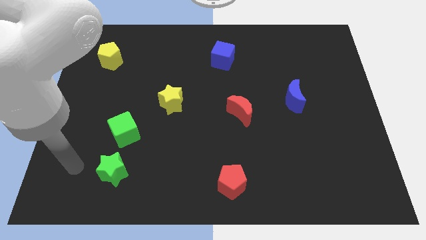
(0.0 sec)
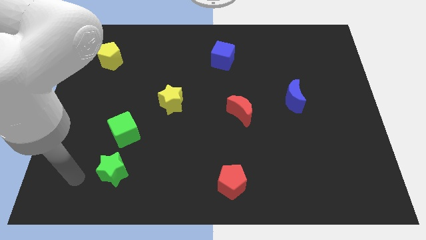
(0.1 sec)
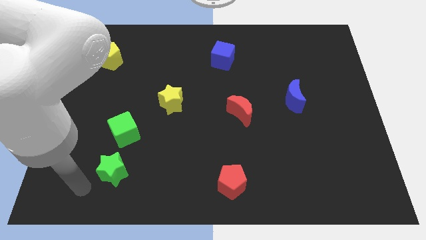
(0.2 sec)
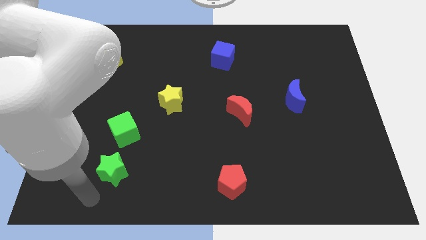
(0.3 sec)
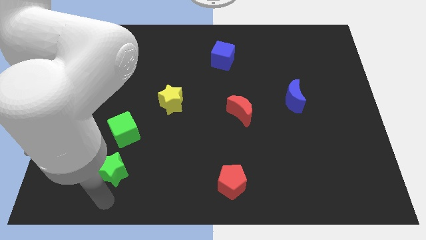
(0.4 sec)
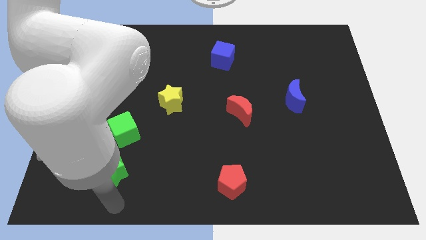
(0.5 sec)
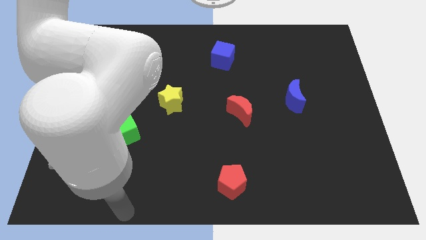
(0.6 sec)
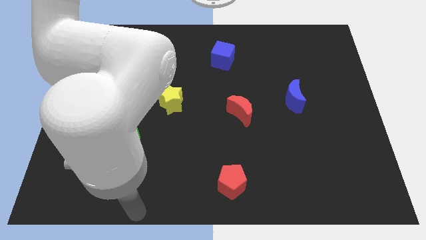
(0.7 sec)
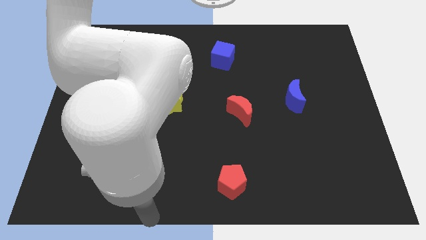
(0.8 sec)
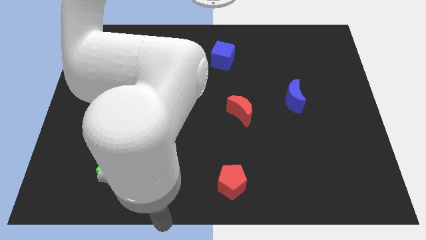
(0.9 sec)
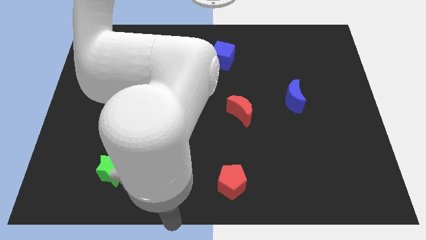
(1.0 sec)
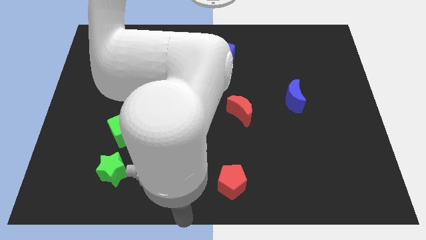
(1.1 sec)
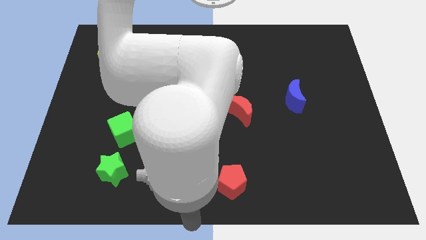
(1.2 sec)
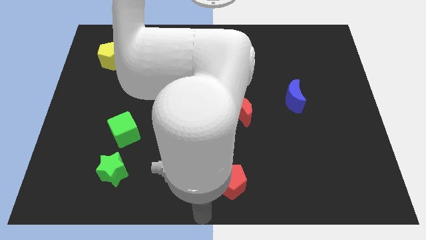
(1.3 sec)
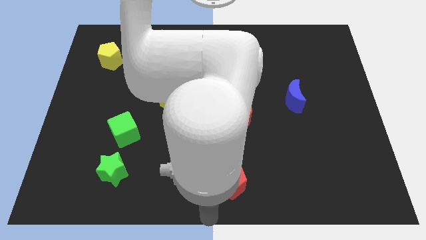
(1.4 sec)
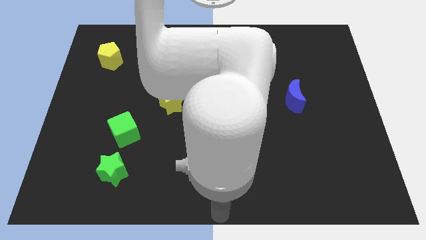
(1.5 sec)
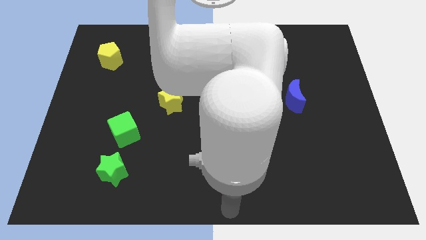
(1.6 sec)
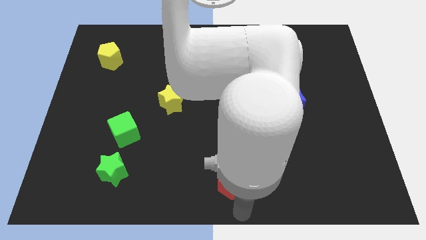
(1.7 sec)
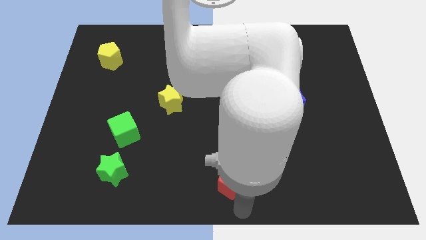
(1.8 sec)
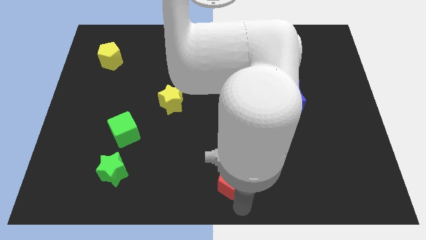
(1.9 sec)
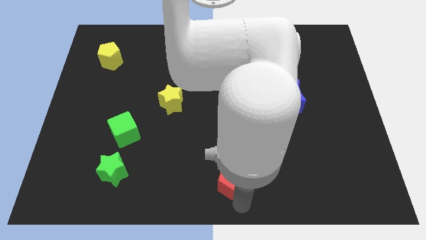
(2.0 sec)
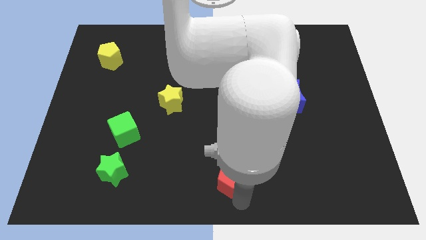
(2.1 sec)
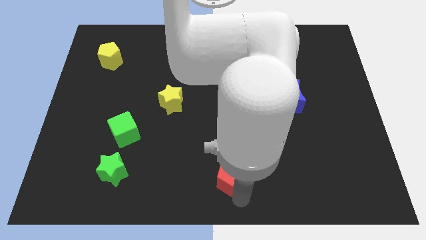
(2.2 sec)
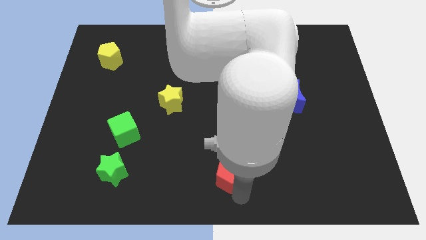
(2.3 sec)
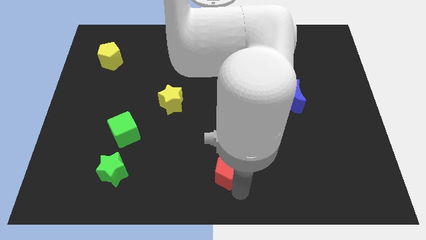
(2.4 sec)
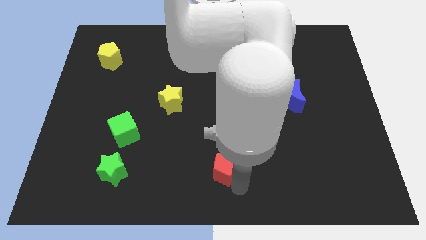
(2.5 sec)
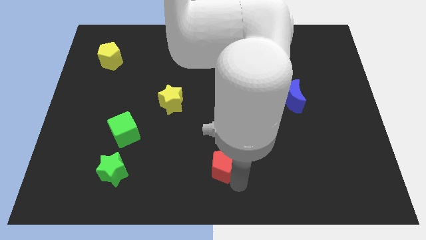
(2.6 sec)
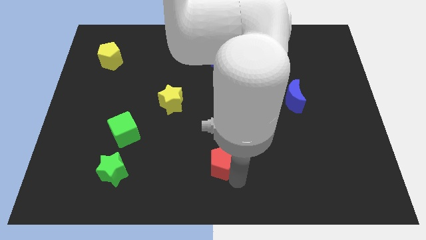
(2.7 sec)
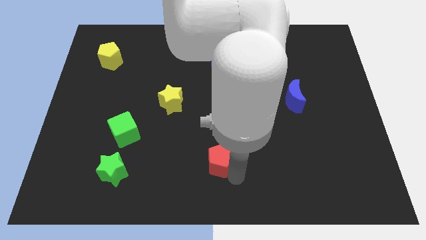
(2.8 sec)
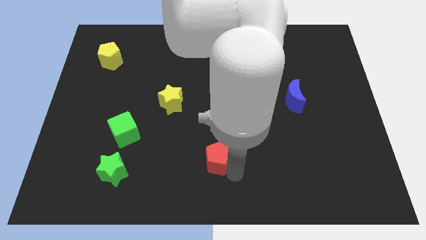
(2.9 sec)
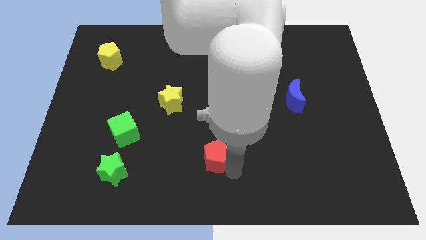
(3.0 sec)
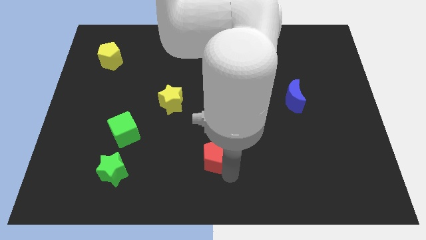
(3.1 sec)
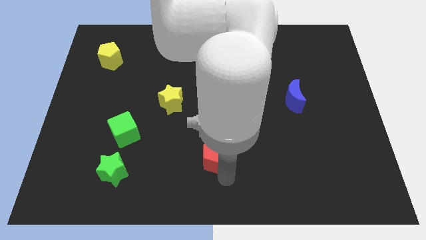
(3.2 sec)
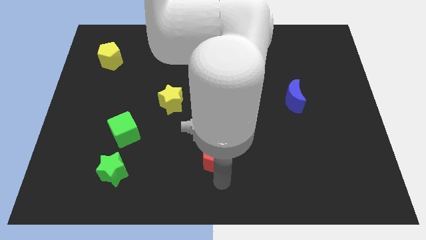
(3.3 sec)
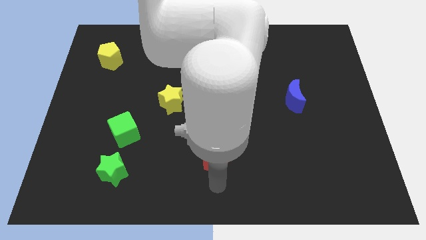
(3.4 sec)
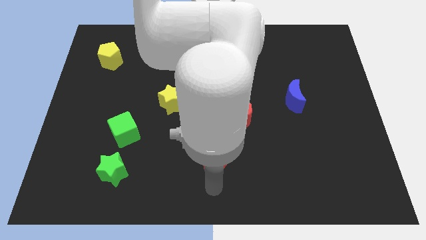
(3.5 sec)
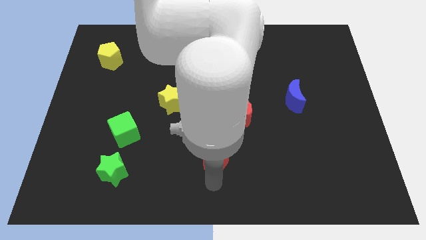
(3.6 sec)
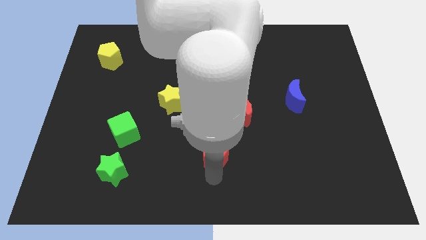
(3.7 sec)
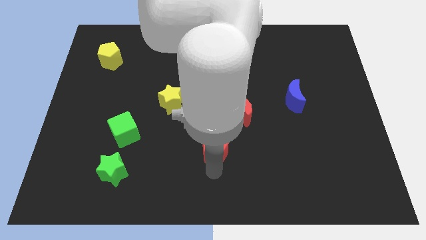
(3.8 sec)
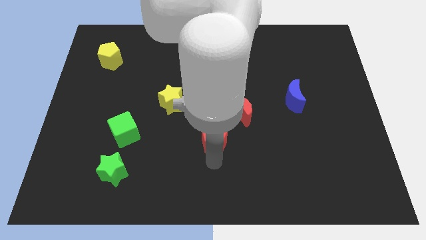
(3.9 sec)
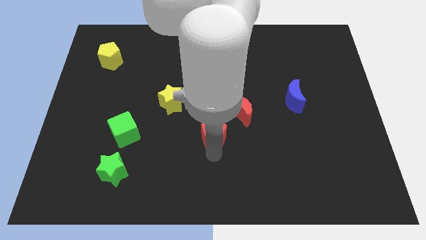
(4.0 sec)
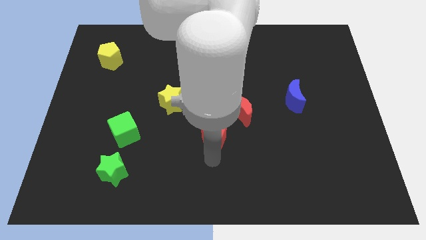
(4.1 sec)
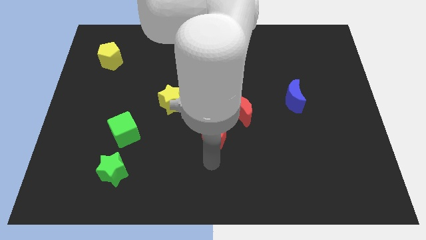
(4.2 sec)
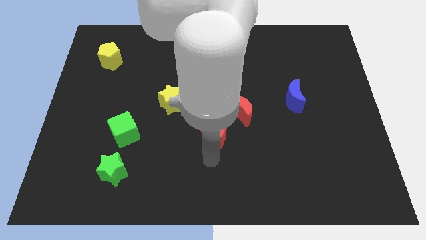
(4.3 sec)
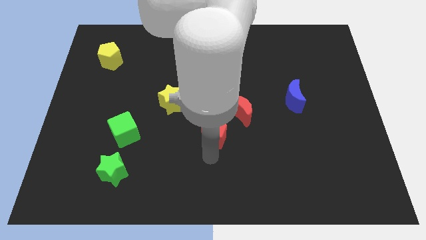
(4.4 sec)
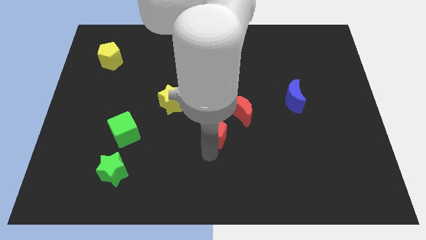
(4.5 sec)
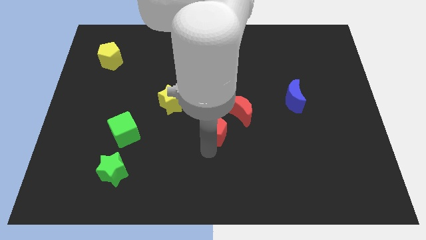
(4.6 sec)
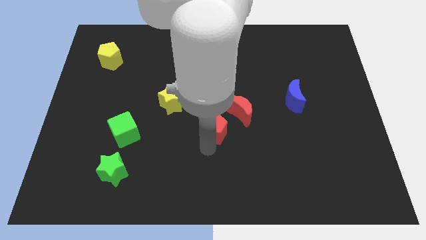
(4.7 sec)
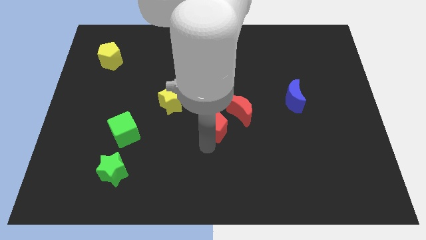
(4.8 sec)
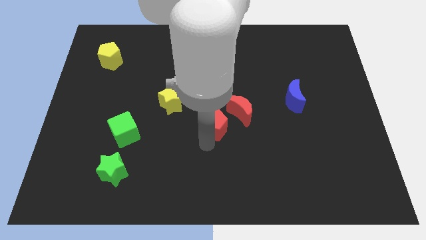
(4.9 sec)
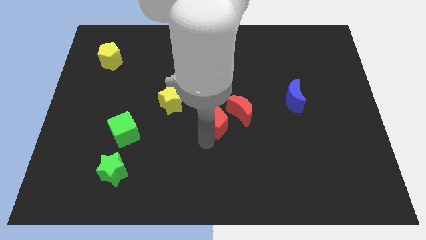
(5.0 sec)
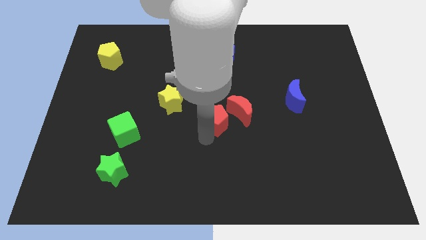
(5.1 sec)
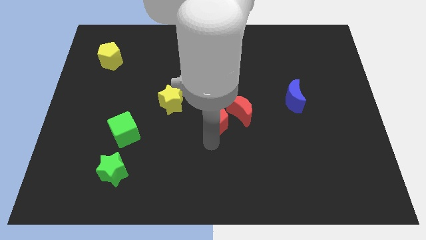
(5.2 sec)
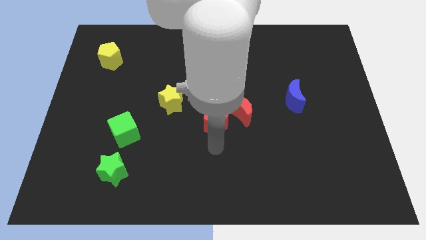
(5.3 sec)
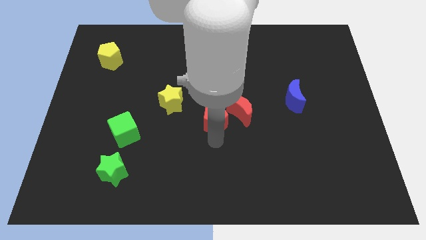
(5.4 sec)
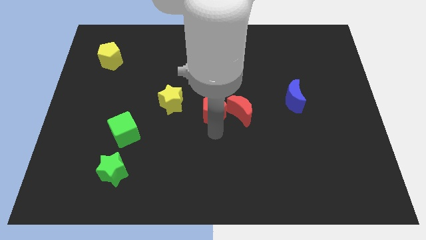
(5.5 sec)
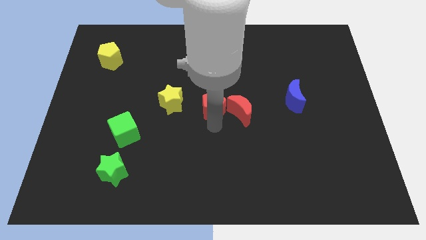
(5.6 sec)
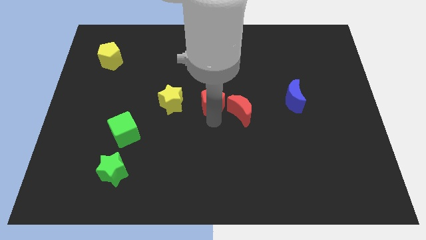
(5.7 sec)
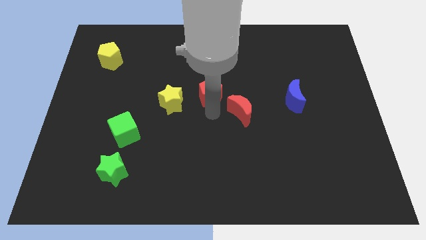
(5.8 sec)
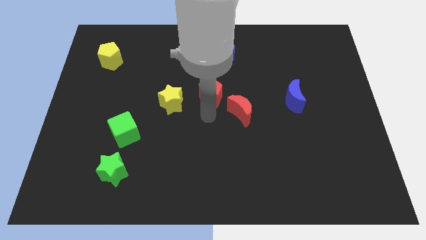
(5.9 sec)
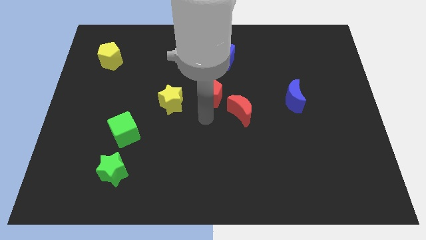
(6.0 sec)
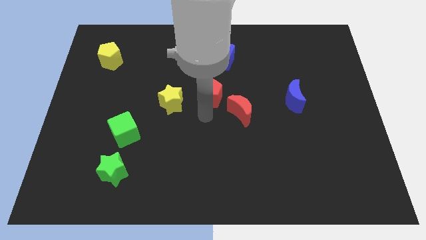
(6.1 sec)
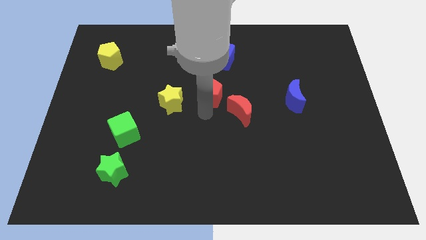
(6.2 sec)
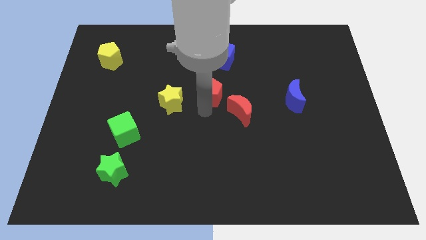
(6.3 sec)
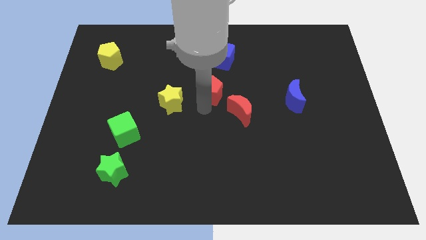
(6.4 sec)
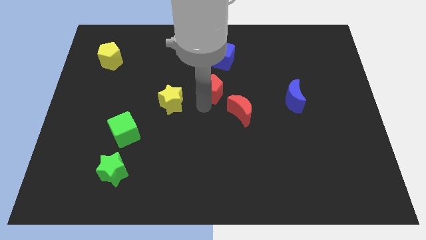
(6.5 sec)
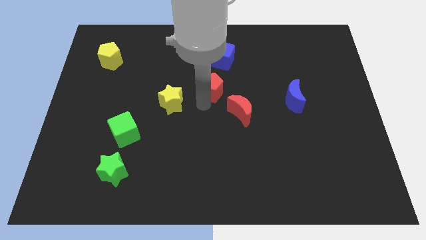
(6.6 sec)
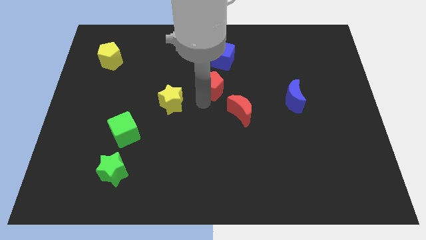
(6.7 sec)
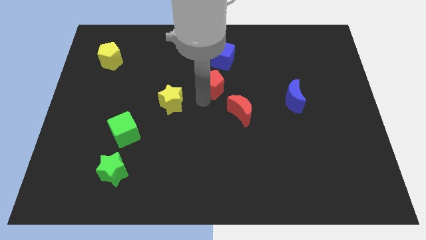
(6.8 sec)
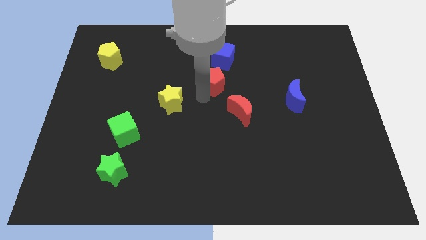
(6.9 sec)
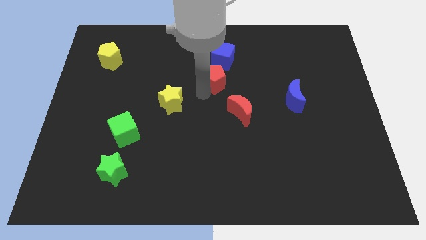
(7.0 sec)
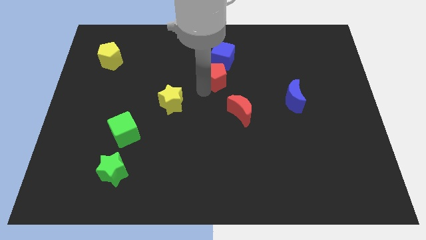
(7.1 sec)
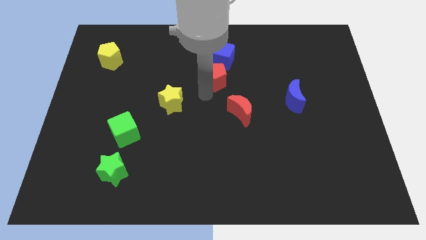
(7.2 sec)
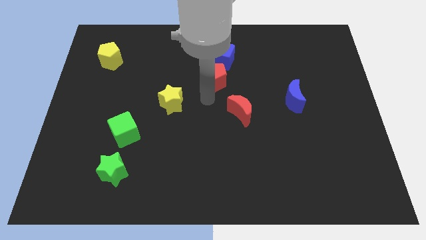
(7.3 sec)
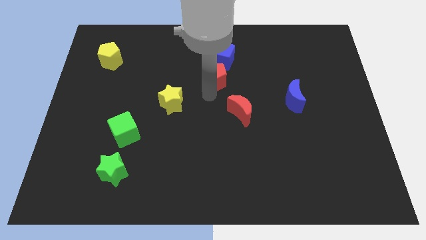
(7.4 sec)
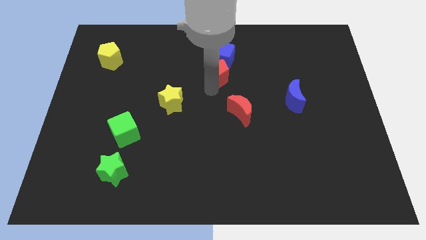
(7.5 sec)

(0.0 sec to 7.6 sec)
push the red pentagon to the blue cube
